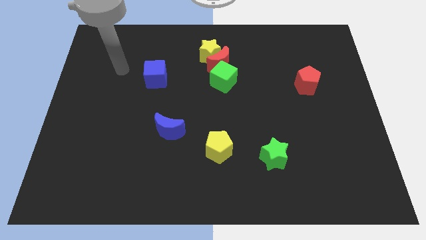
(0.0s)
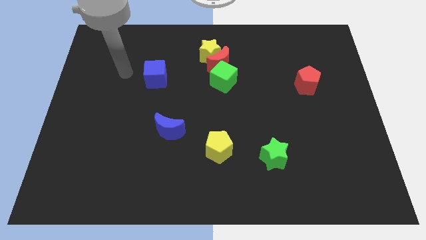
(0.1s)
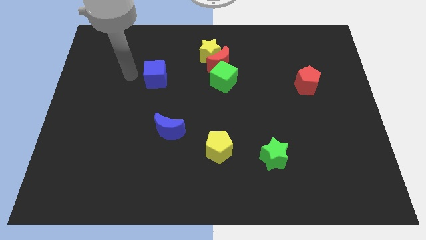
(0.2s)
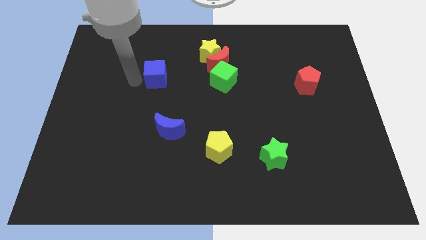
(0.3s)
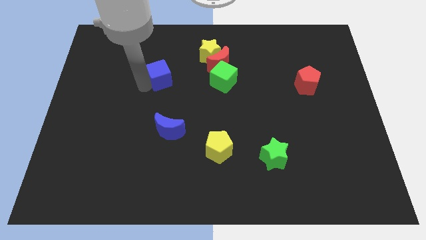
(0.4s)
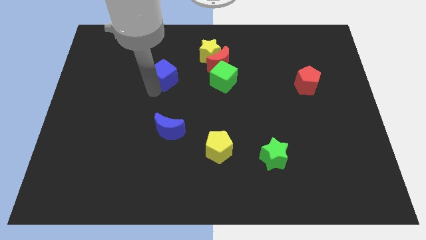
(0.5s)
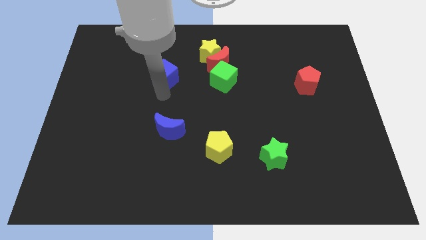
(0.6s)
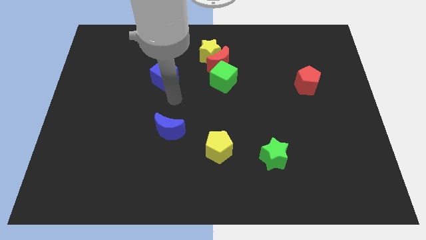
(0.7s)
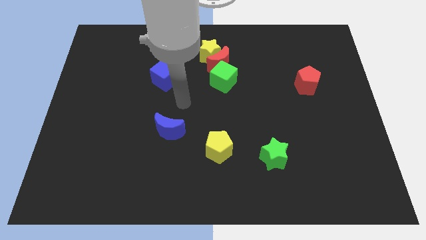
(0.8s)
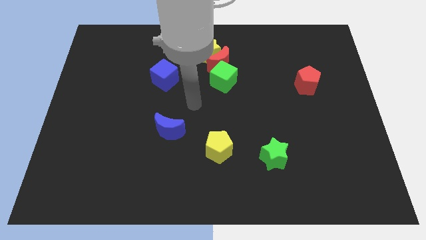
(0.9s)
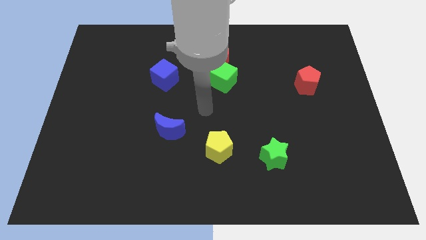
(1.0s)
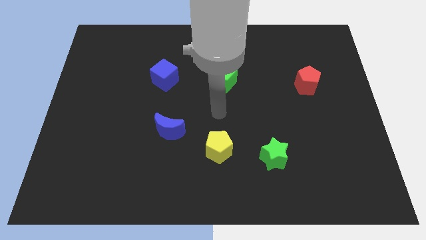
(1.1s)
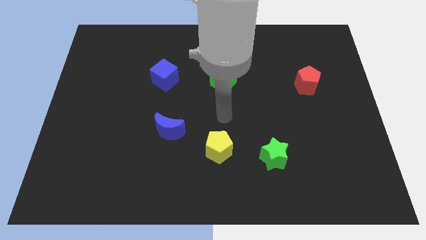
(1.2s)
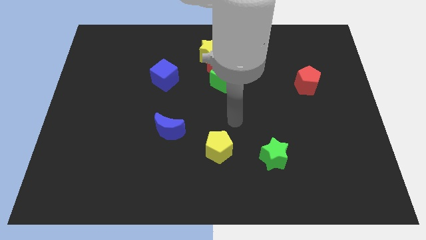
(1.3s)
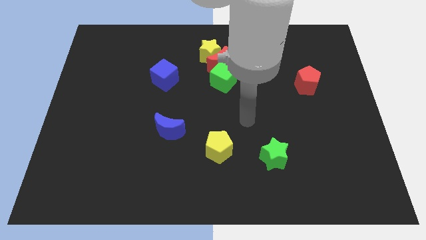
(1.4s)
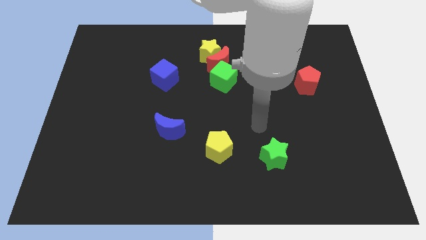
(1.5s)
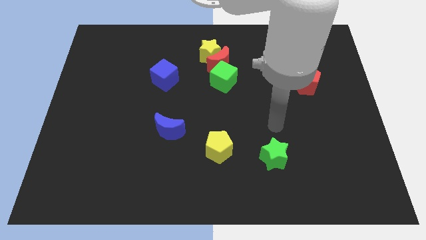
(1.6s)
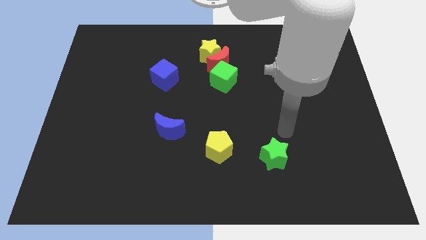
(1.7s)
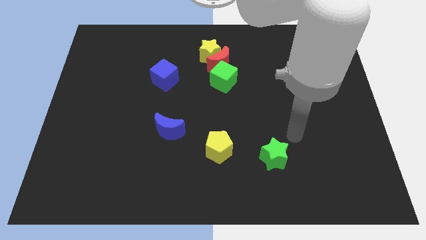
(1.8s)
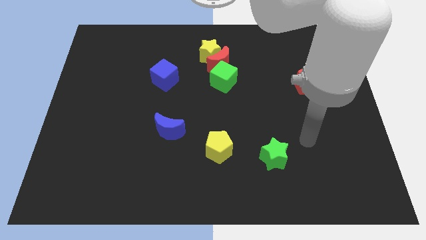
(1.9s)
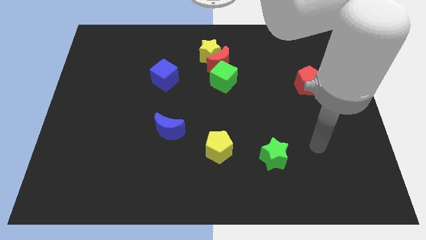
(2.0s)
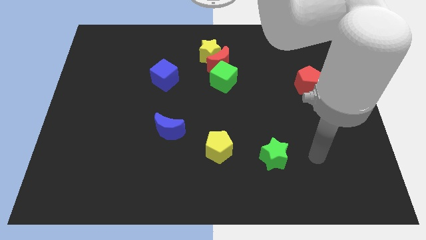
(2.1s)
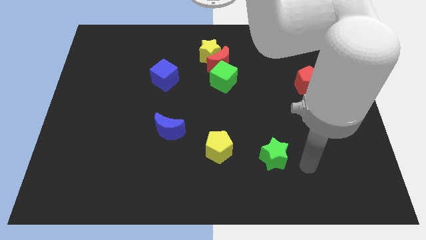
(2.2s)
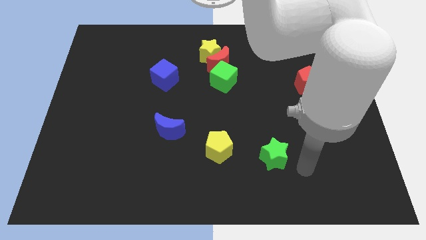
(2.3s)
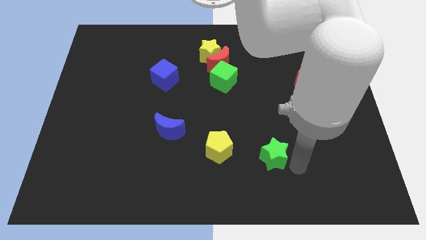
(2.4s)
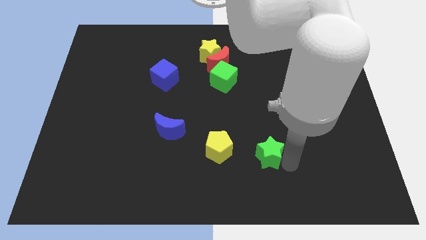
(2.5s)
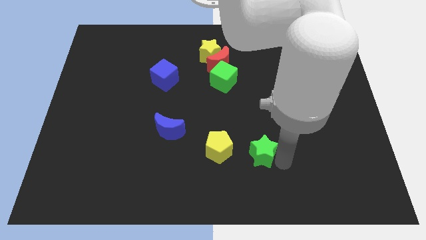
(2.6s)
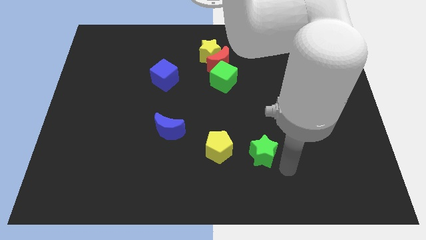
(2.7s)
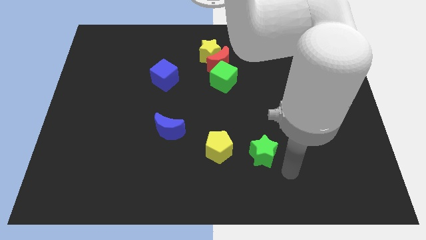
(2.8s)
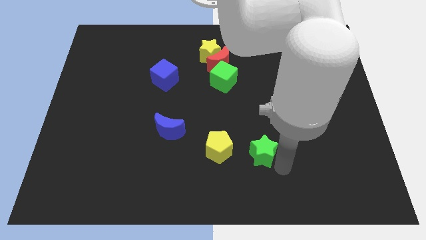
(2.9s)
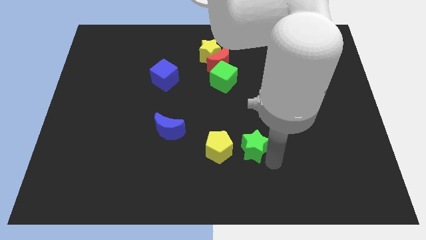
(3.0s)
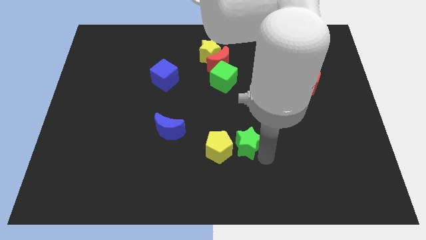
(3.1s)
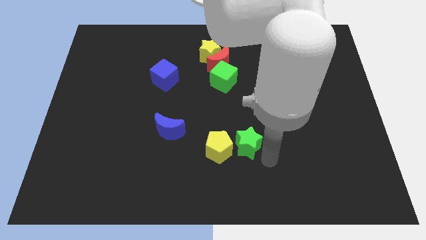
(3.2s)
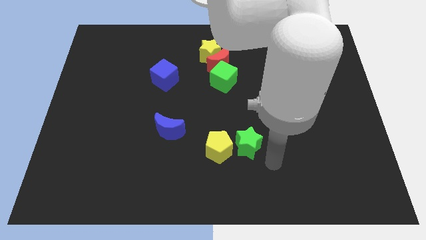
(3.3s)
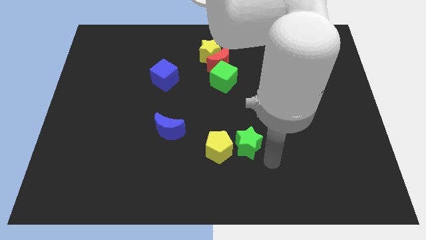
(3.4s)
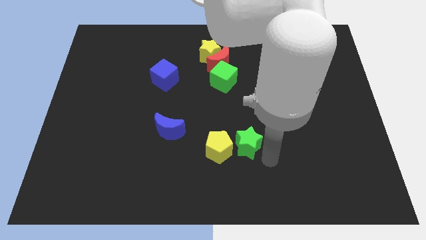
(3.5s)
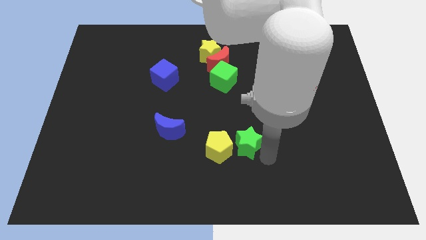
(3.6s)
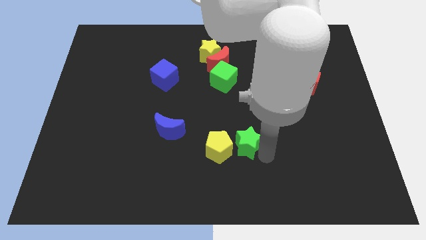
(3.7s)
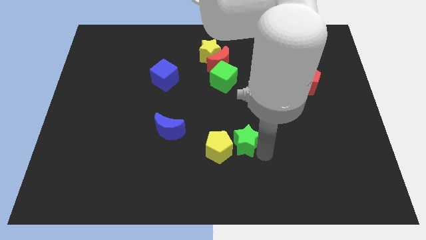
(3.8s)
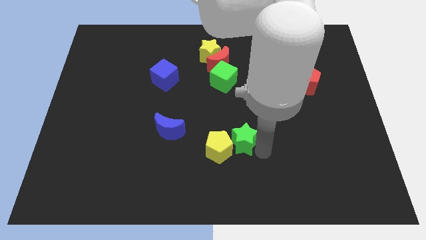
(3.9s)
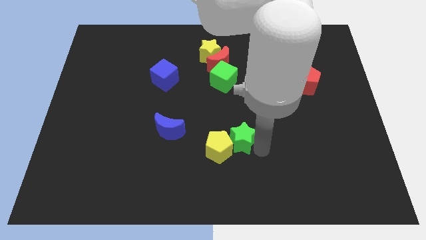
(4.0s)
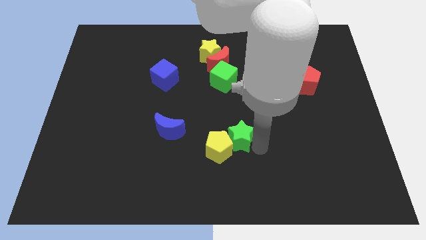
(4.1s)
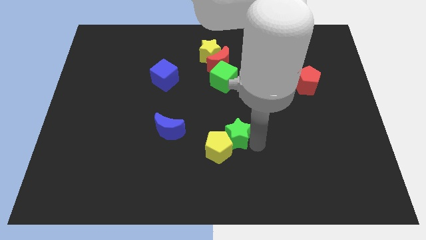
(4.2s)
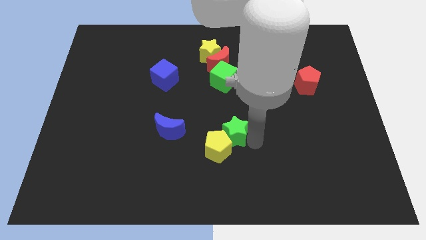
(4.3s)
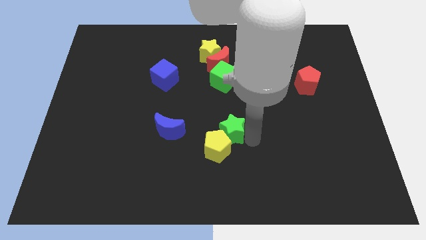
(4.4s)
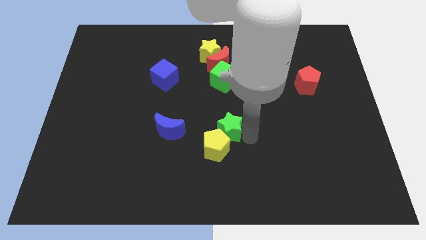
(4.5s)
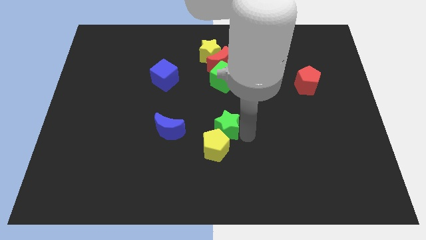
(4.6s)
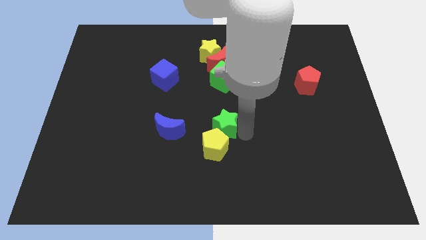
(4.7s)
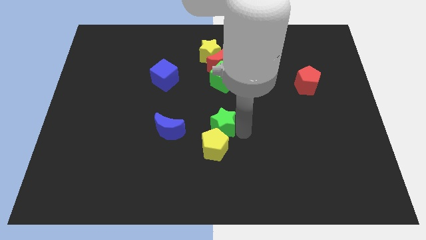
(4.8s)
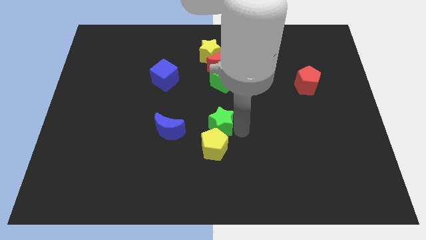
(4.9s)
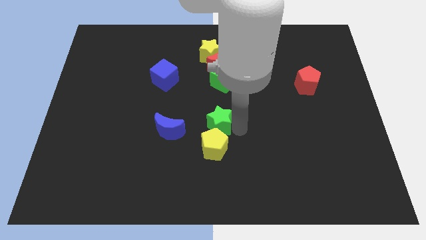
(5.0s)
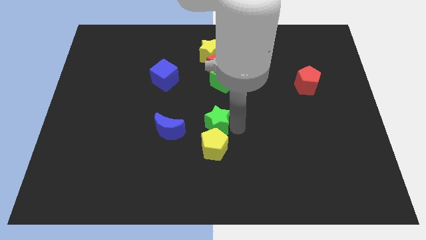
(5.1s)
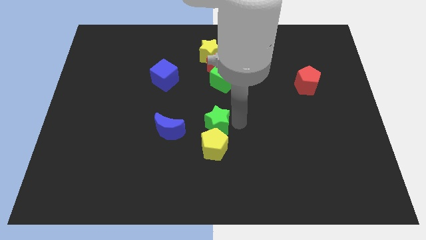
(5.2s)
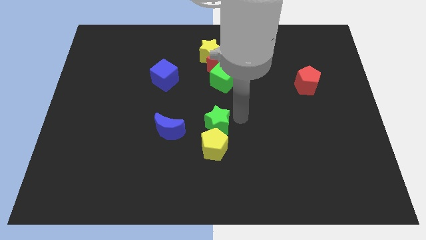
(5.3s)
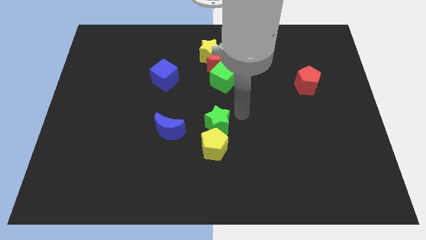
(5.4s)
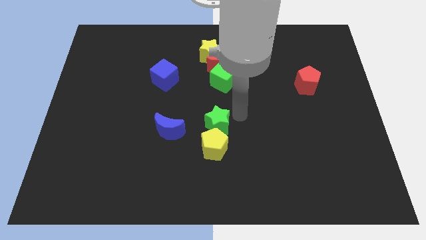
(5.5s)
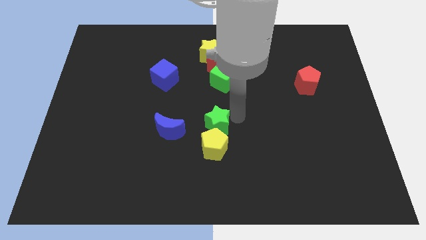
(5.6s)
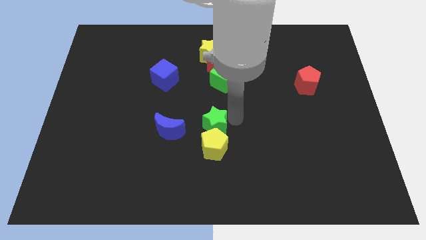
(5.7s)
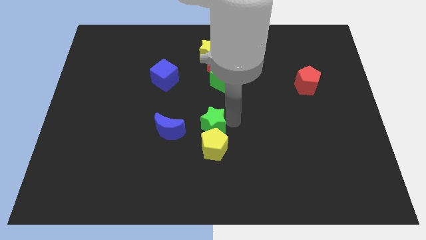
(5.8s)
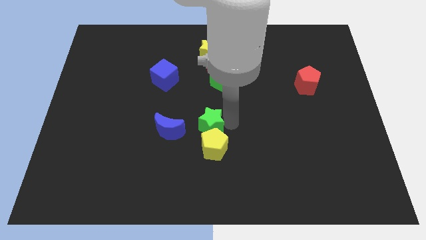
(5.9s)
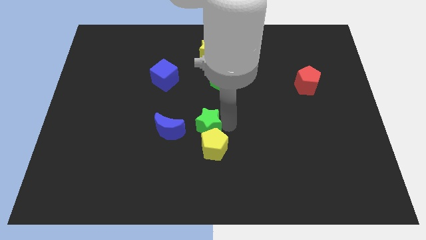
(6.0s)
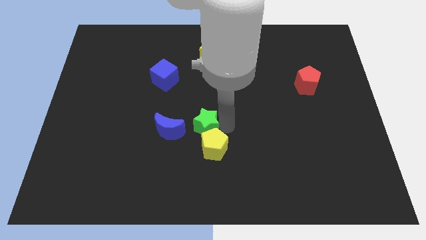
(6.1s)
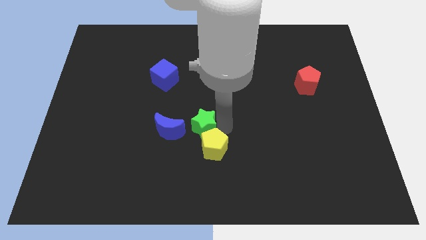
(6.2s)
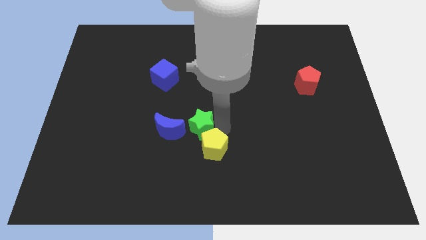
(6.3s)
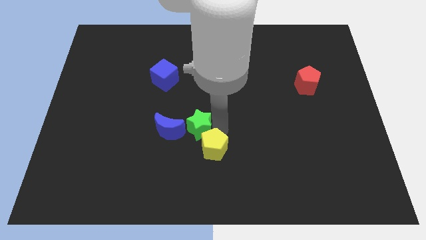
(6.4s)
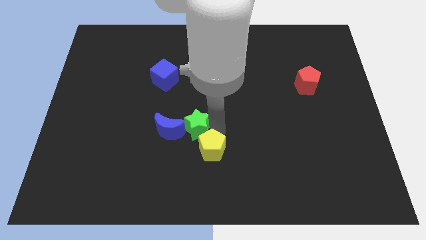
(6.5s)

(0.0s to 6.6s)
push the green star close to the blue moon

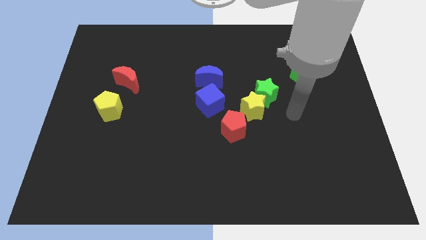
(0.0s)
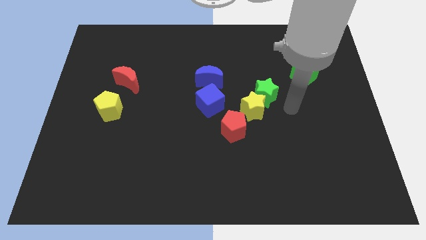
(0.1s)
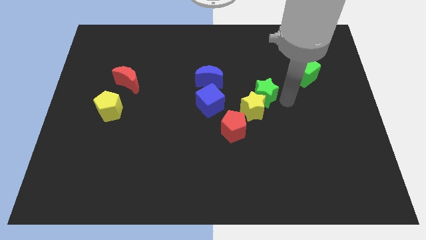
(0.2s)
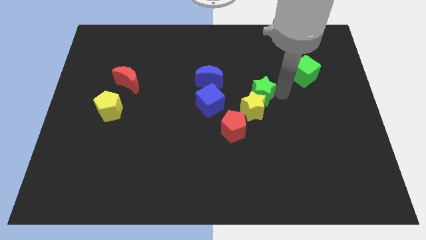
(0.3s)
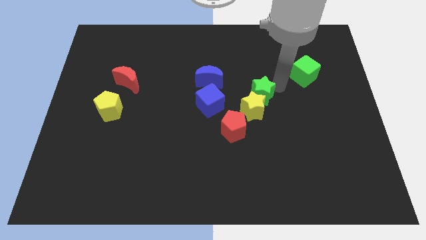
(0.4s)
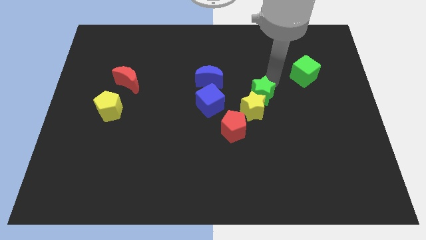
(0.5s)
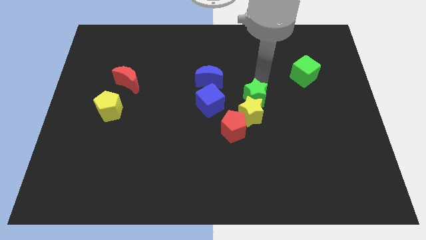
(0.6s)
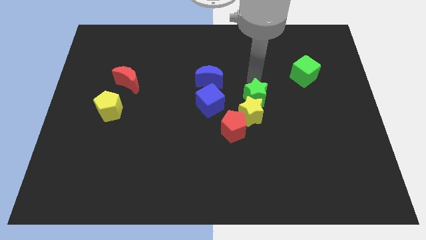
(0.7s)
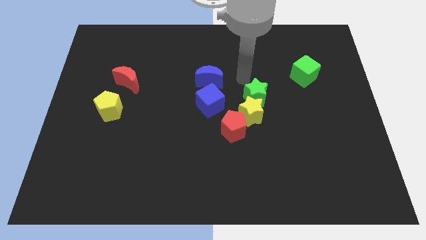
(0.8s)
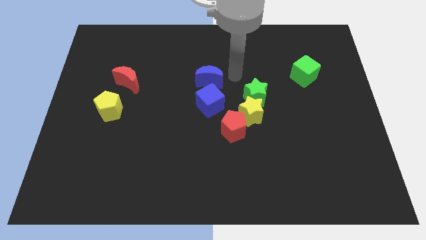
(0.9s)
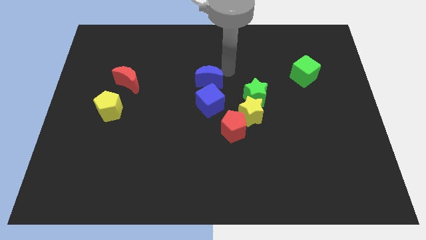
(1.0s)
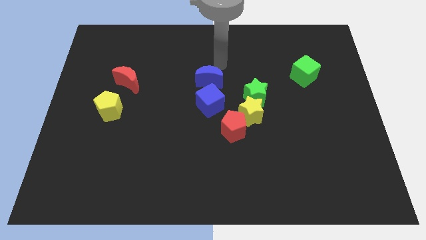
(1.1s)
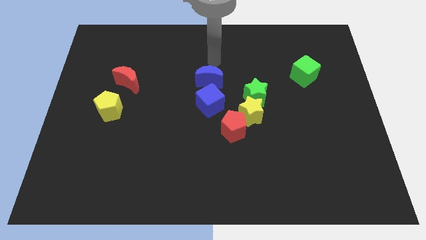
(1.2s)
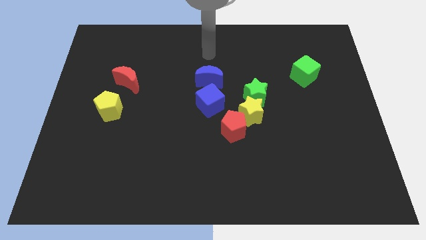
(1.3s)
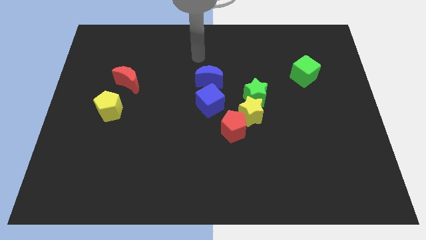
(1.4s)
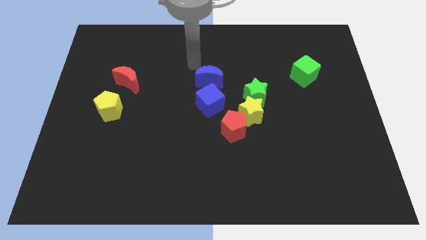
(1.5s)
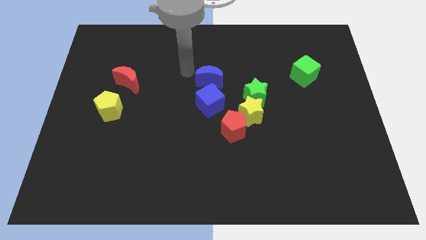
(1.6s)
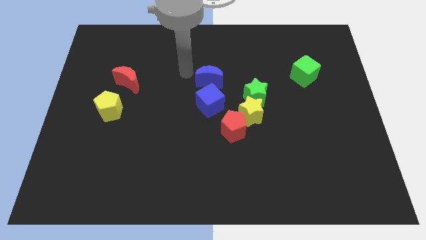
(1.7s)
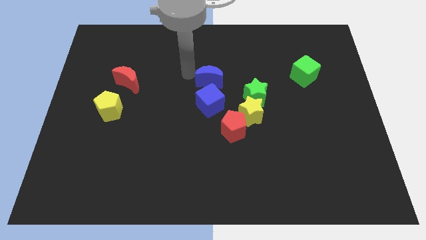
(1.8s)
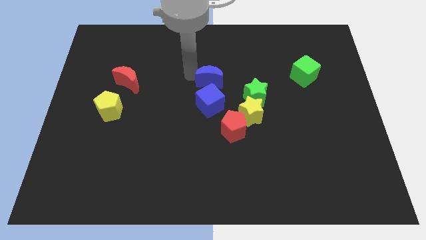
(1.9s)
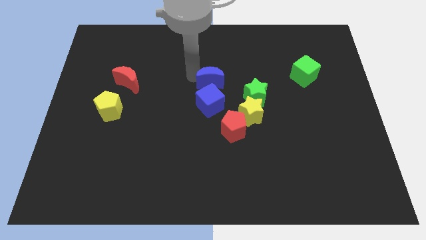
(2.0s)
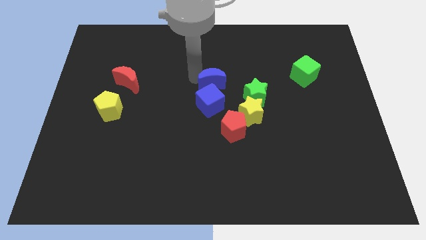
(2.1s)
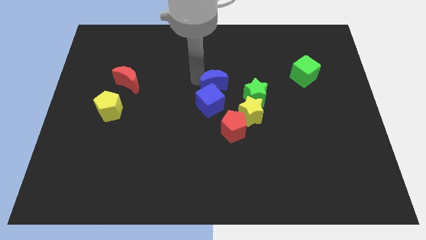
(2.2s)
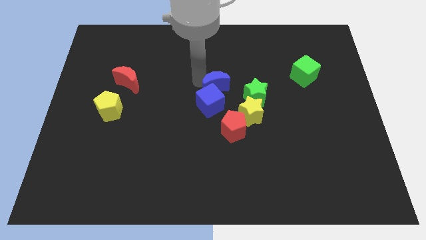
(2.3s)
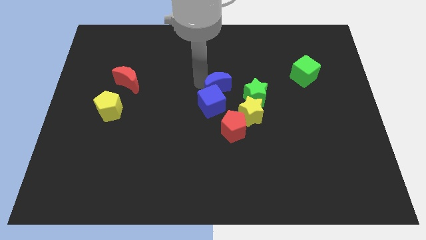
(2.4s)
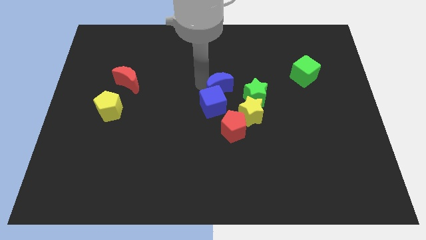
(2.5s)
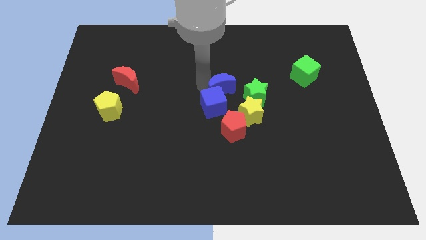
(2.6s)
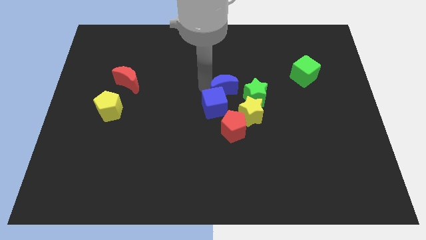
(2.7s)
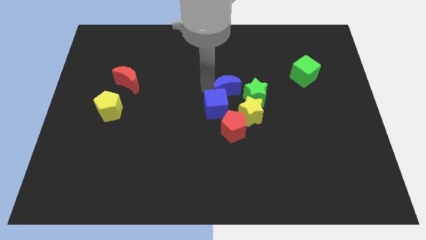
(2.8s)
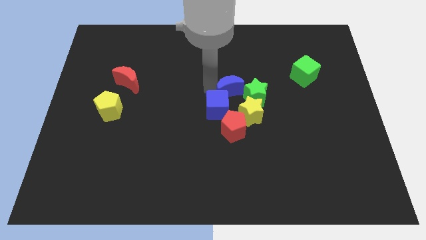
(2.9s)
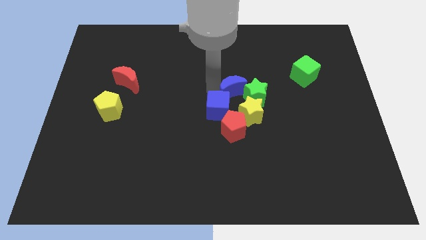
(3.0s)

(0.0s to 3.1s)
push the blue moon close to the green star
